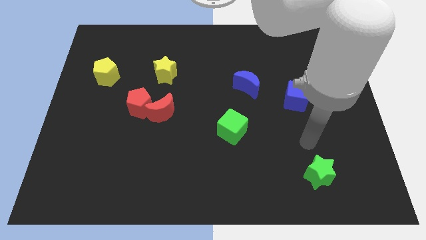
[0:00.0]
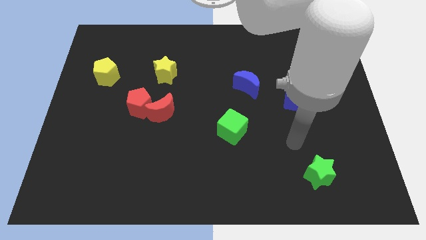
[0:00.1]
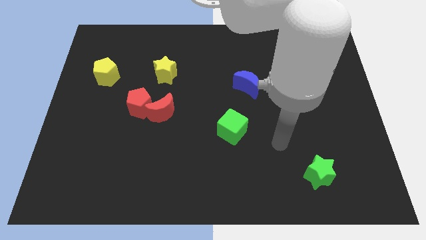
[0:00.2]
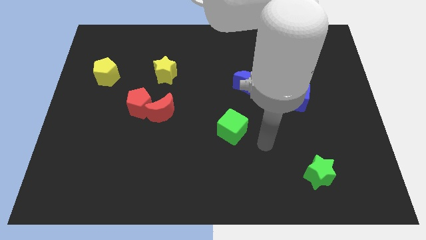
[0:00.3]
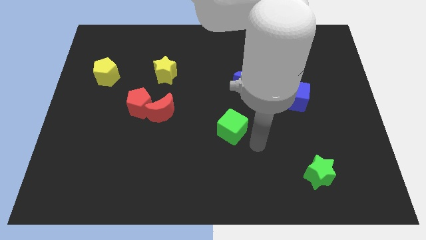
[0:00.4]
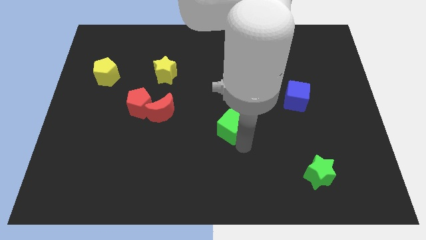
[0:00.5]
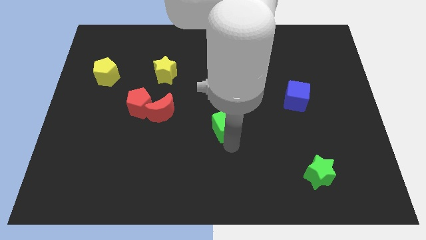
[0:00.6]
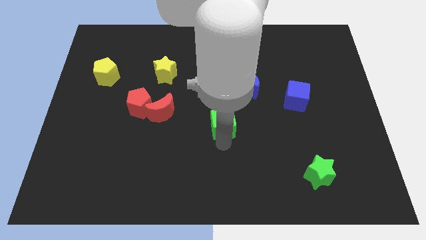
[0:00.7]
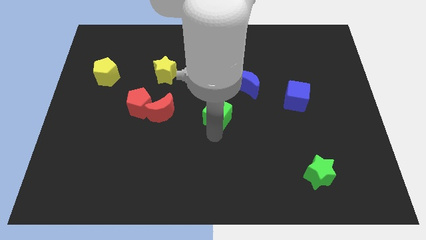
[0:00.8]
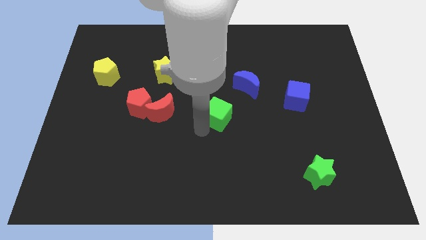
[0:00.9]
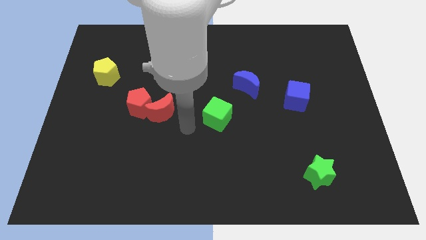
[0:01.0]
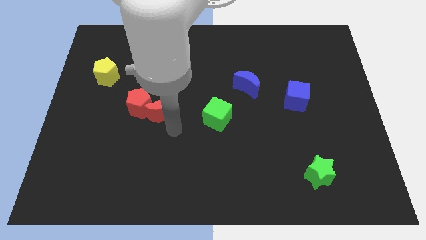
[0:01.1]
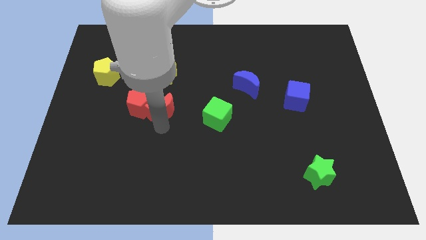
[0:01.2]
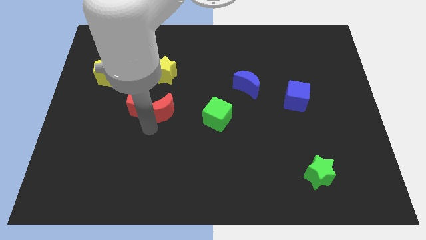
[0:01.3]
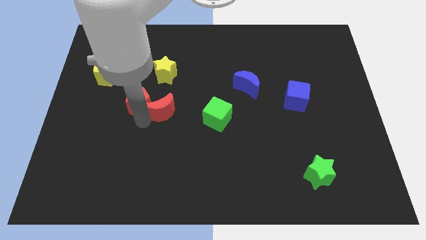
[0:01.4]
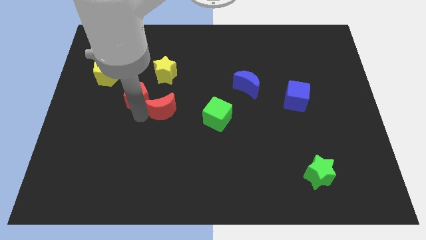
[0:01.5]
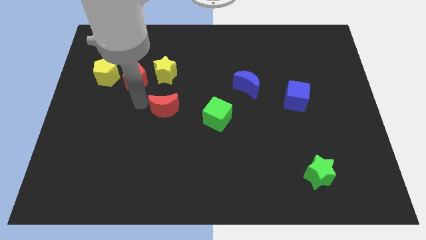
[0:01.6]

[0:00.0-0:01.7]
move the red moon away from the red pentagon

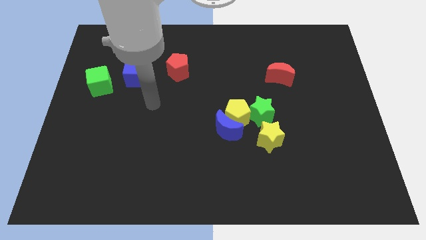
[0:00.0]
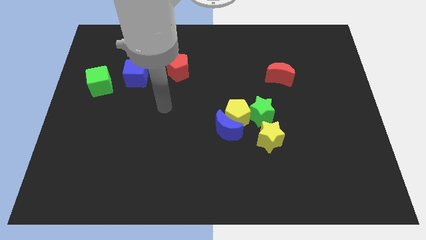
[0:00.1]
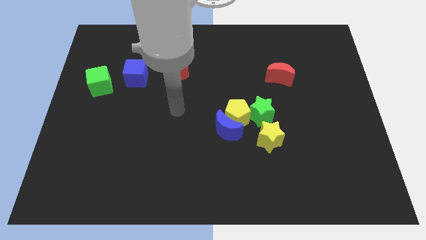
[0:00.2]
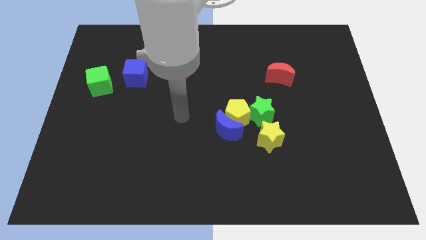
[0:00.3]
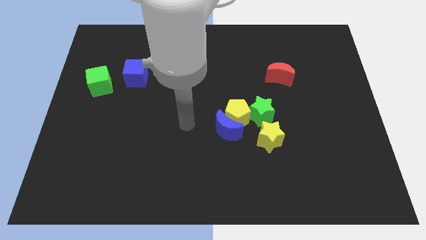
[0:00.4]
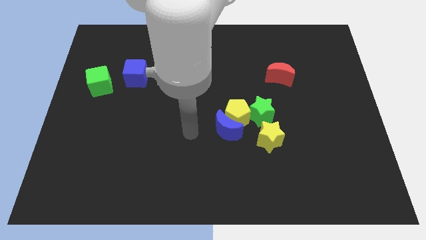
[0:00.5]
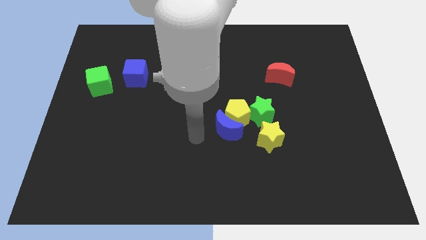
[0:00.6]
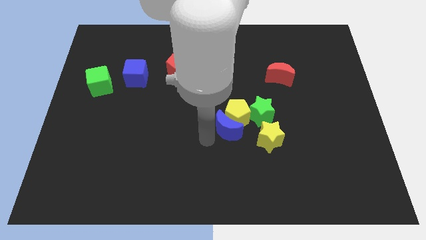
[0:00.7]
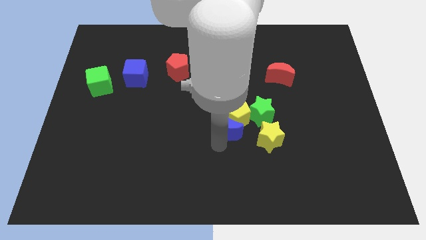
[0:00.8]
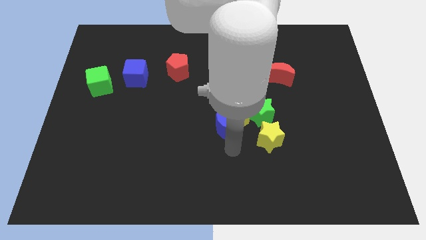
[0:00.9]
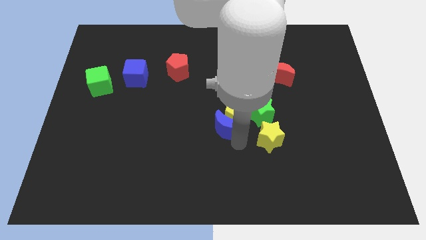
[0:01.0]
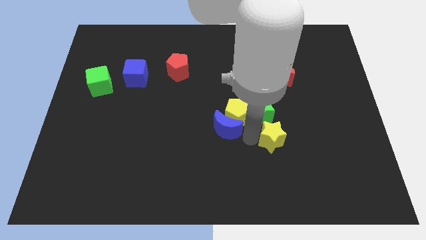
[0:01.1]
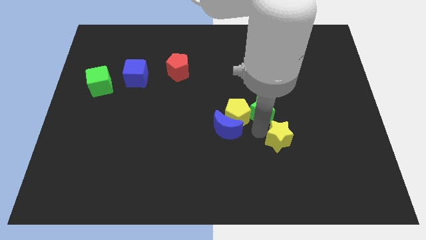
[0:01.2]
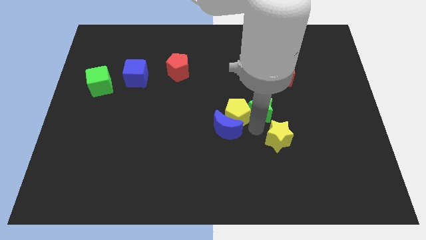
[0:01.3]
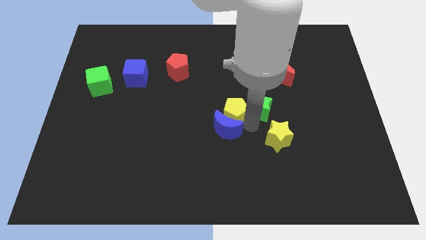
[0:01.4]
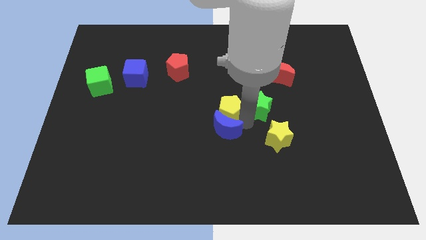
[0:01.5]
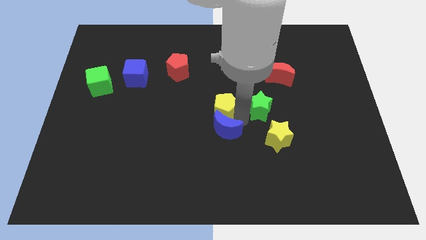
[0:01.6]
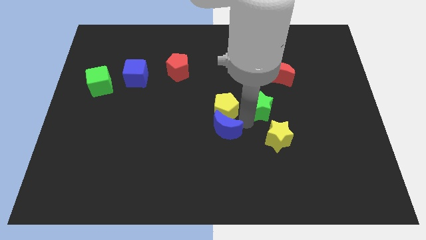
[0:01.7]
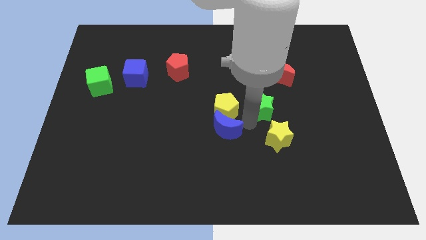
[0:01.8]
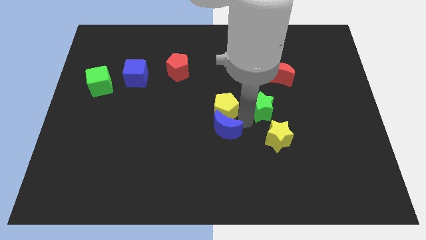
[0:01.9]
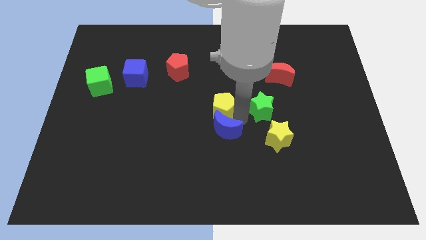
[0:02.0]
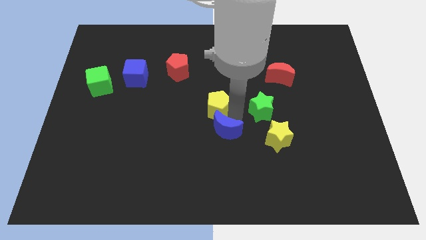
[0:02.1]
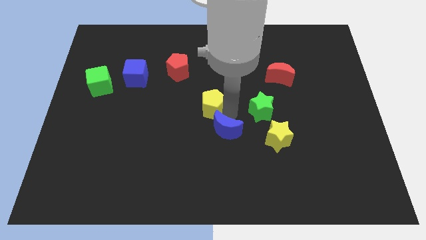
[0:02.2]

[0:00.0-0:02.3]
move the yellow pentagon away from the clump

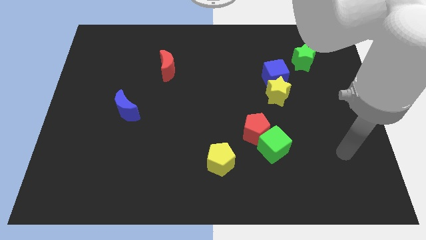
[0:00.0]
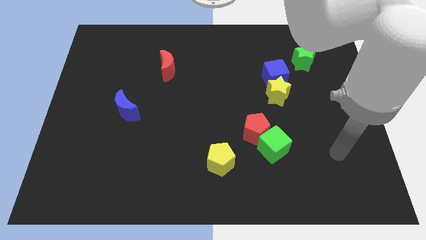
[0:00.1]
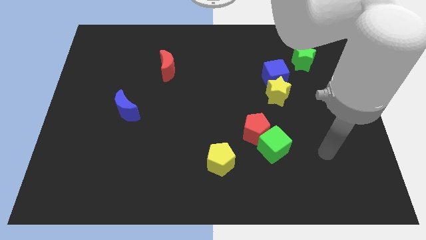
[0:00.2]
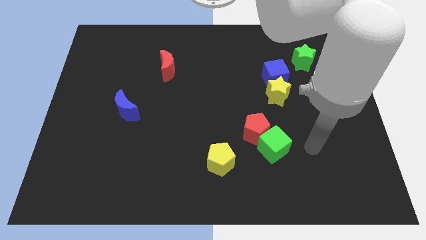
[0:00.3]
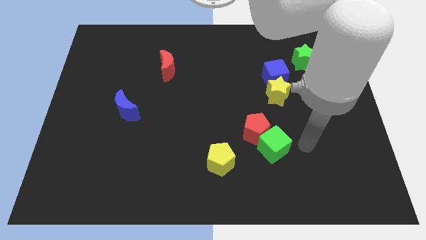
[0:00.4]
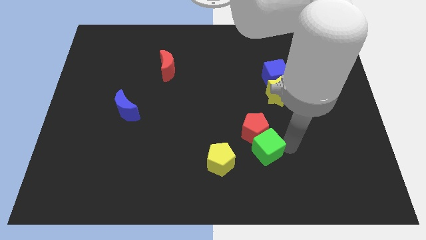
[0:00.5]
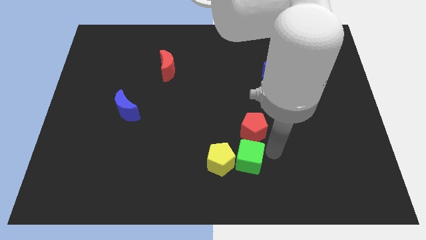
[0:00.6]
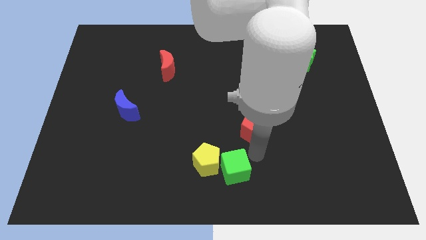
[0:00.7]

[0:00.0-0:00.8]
pull the red pentagon apart from the green cube

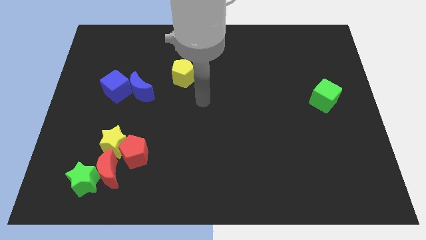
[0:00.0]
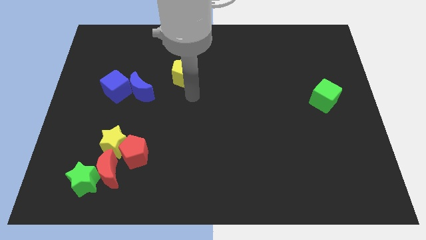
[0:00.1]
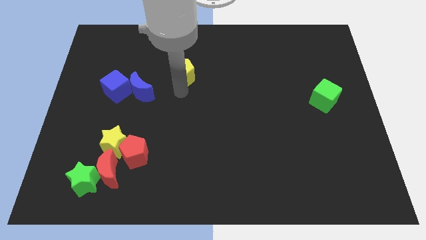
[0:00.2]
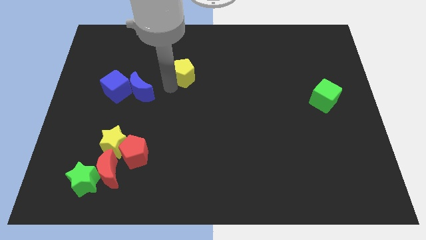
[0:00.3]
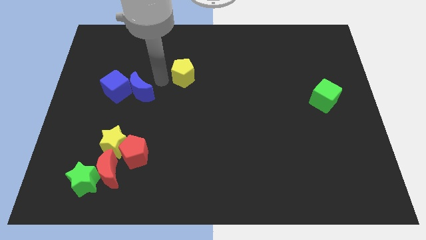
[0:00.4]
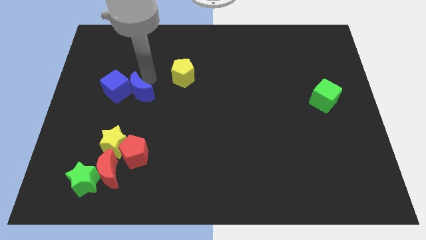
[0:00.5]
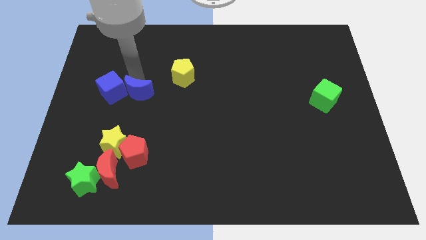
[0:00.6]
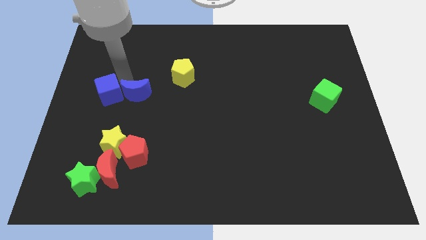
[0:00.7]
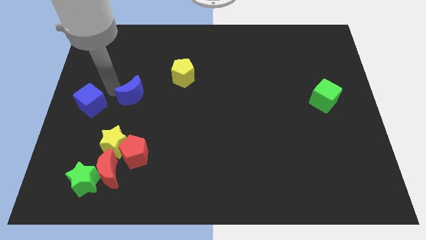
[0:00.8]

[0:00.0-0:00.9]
separate the blue moon from the blue cube

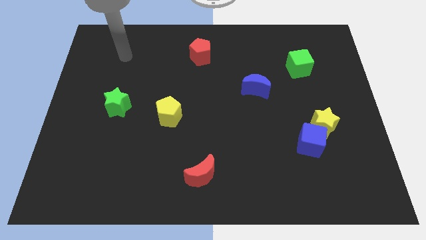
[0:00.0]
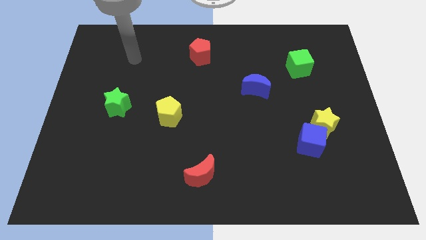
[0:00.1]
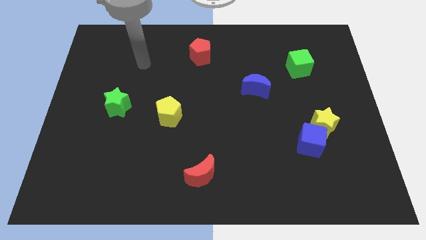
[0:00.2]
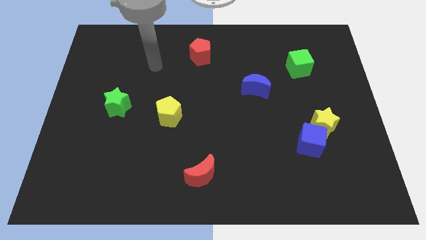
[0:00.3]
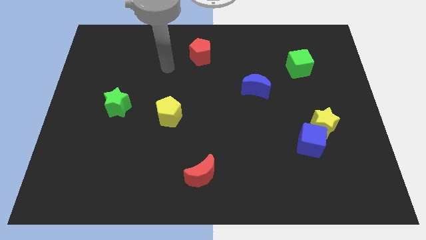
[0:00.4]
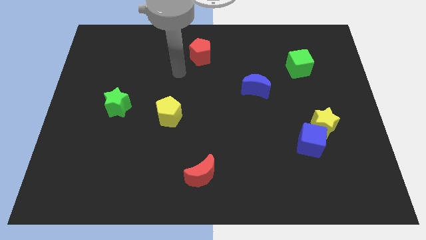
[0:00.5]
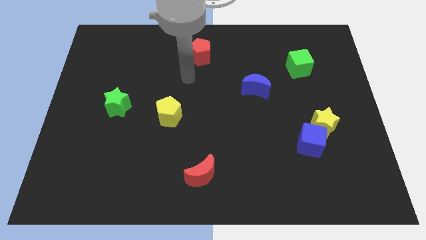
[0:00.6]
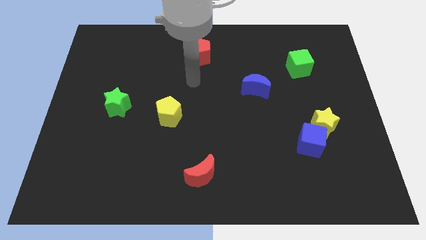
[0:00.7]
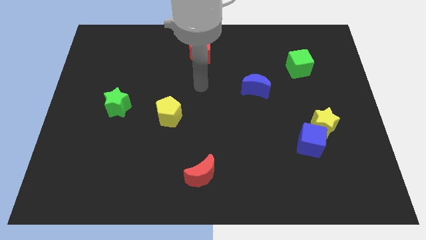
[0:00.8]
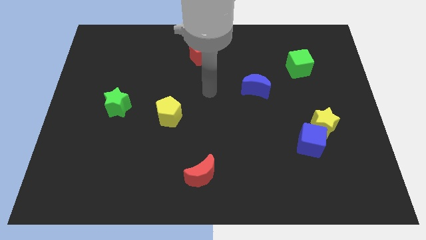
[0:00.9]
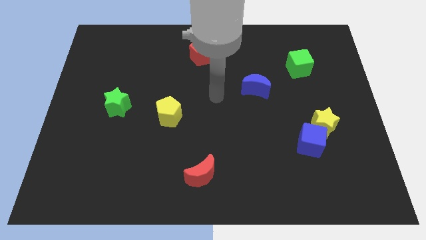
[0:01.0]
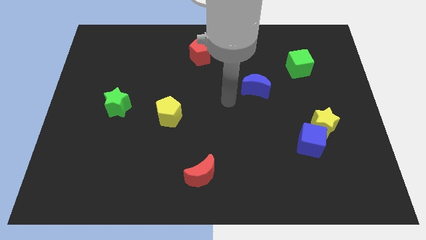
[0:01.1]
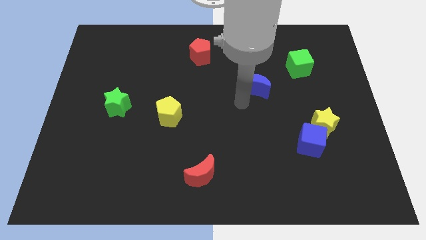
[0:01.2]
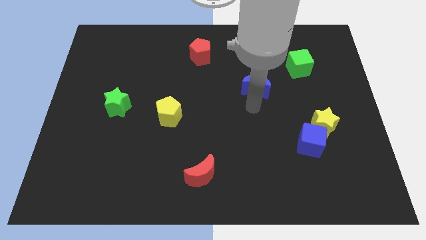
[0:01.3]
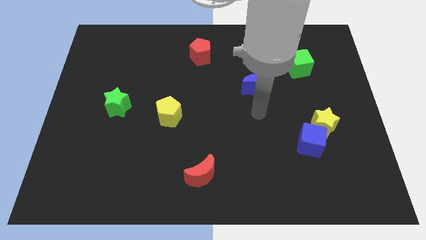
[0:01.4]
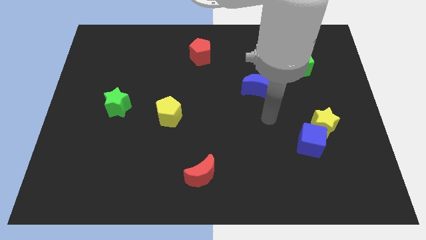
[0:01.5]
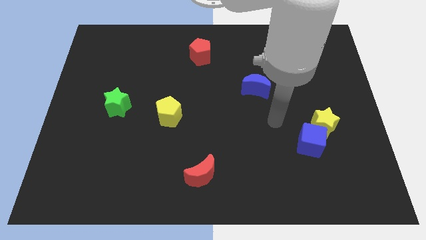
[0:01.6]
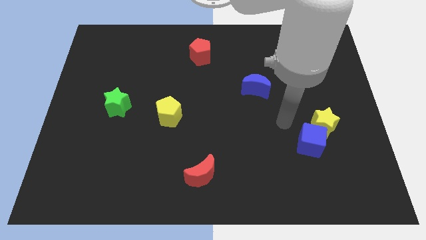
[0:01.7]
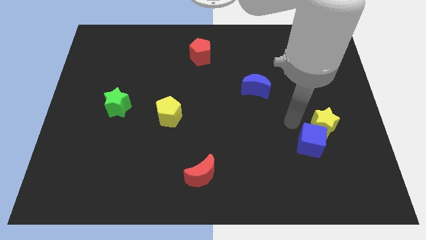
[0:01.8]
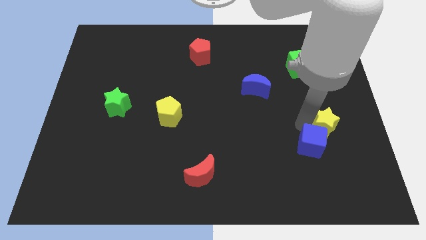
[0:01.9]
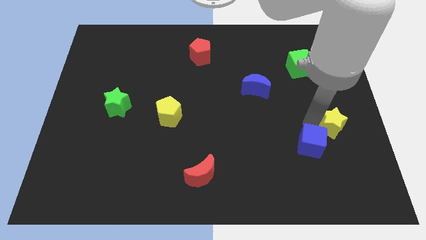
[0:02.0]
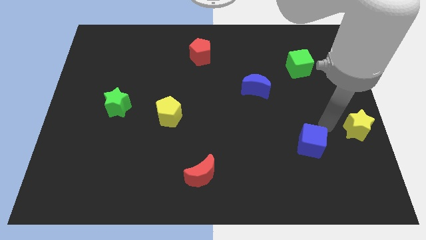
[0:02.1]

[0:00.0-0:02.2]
separate the blue cube from the yellow star

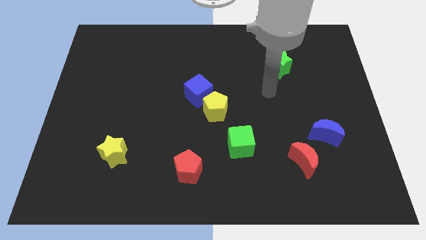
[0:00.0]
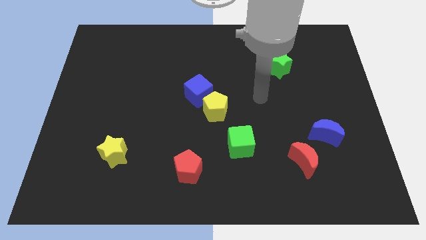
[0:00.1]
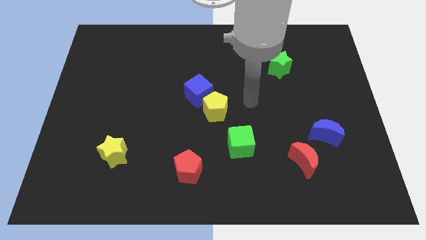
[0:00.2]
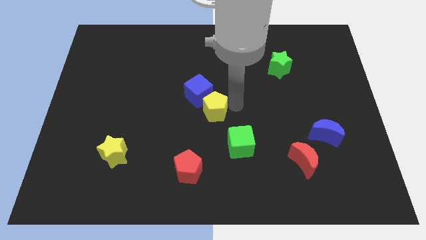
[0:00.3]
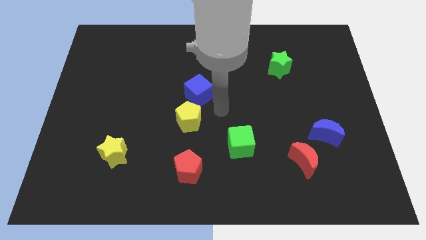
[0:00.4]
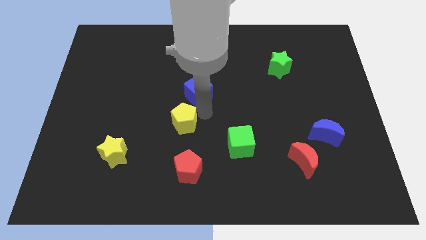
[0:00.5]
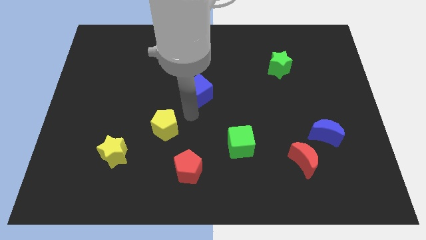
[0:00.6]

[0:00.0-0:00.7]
pull the blue cube apart from the yellow pentagon

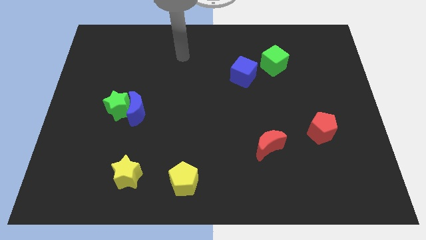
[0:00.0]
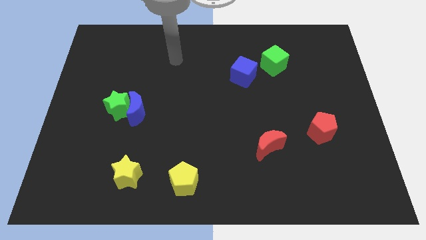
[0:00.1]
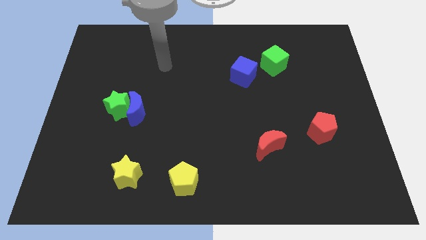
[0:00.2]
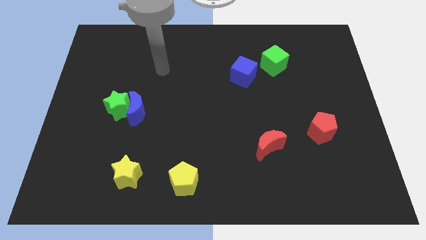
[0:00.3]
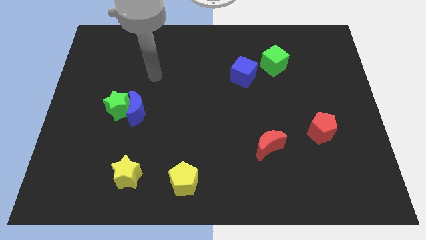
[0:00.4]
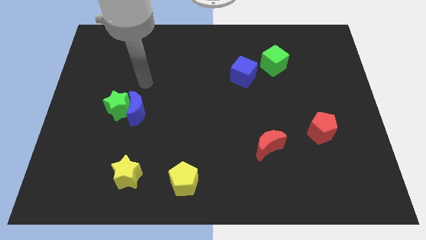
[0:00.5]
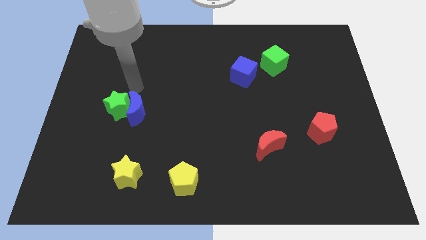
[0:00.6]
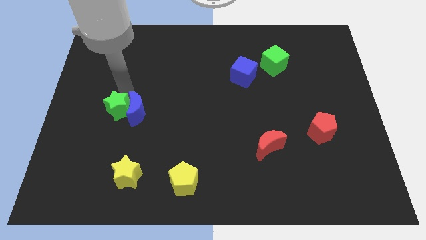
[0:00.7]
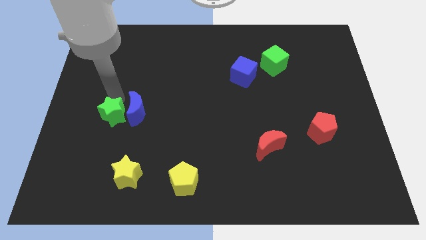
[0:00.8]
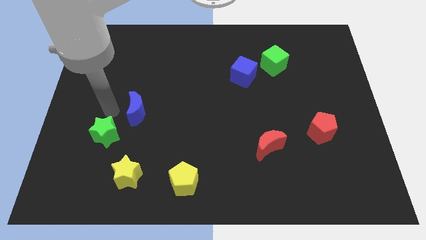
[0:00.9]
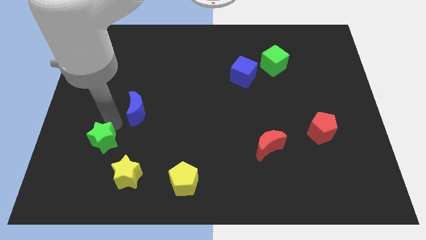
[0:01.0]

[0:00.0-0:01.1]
separate the blue moon from the green star
